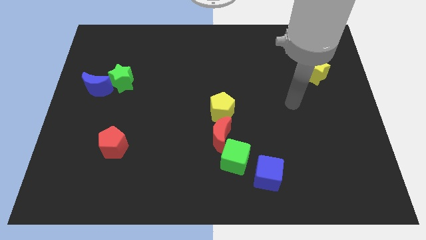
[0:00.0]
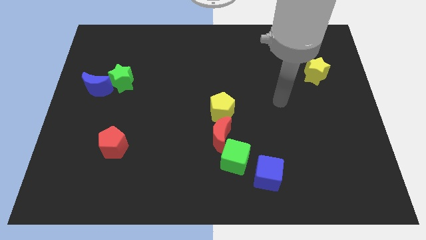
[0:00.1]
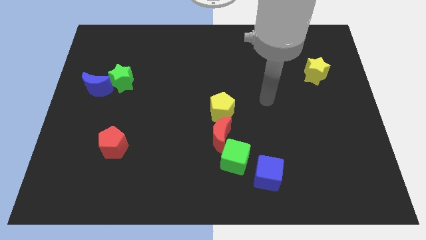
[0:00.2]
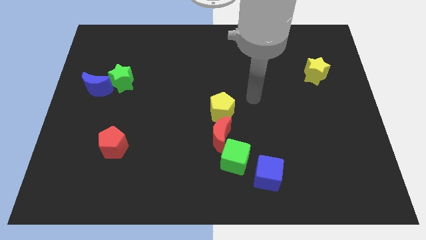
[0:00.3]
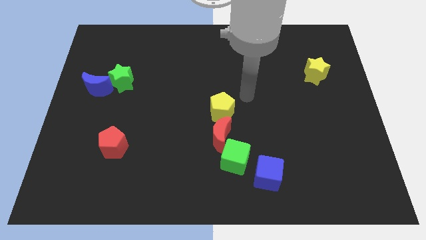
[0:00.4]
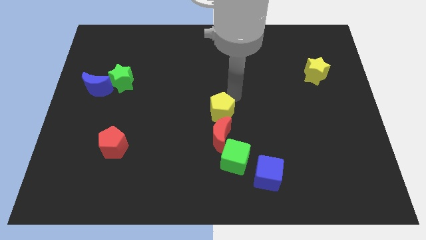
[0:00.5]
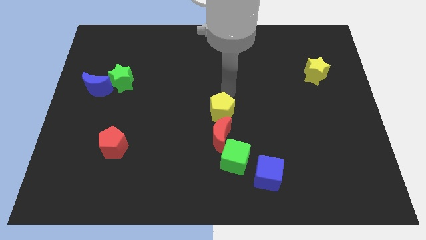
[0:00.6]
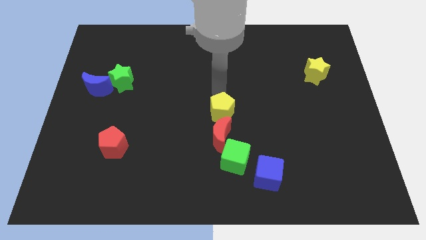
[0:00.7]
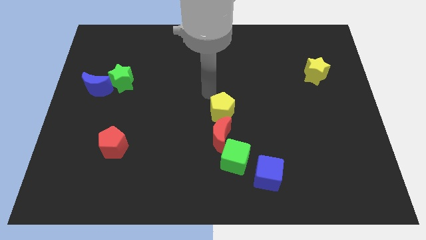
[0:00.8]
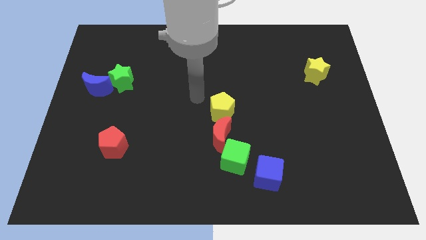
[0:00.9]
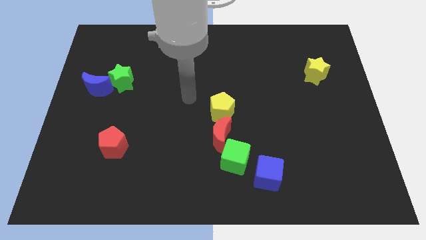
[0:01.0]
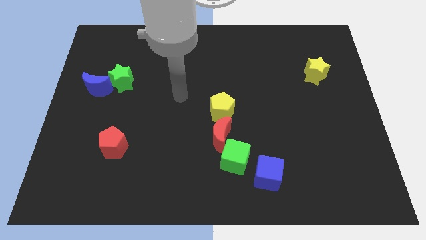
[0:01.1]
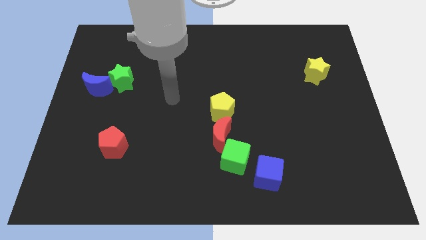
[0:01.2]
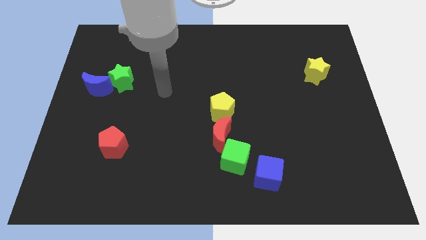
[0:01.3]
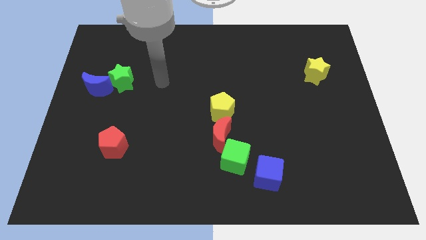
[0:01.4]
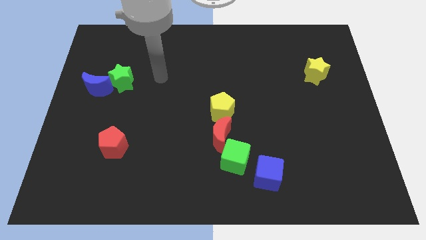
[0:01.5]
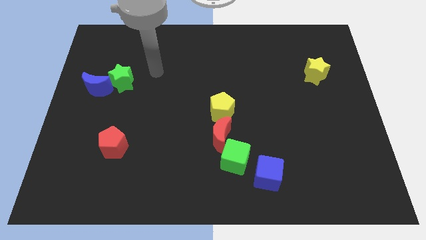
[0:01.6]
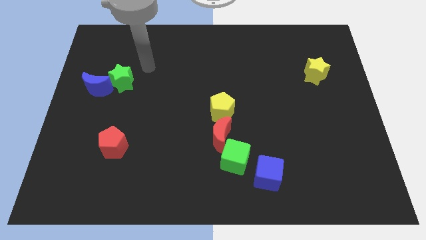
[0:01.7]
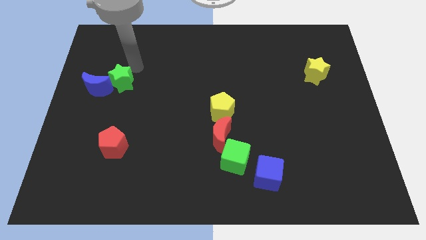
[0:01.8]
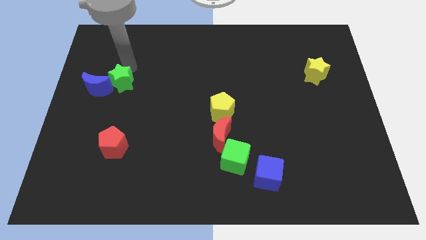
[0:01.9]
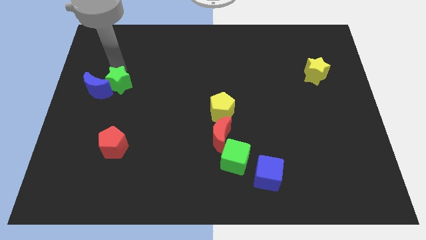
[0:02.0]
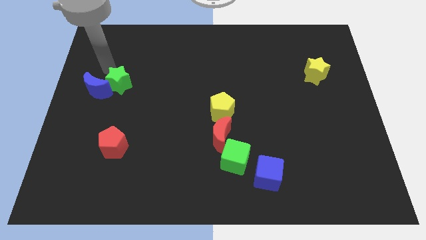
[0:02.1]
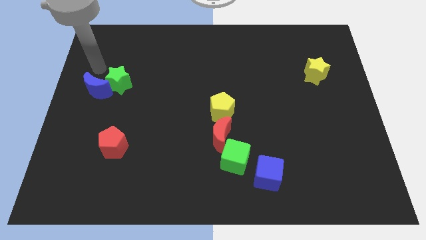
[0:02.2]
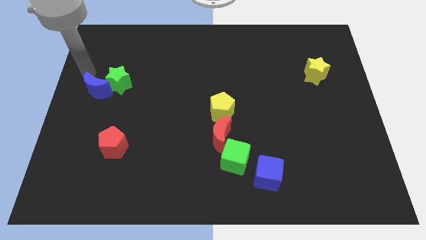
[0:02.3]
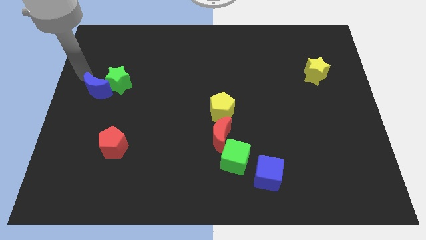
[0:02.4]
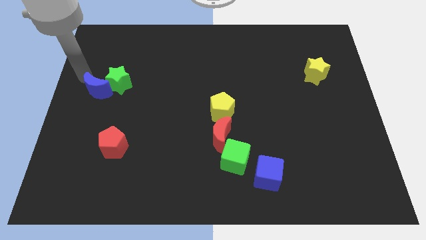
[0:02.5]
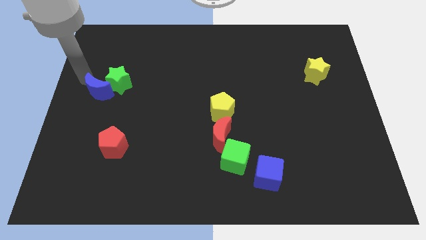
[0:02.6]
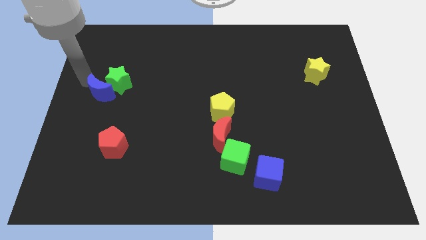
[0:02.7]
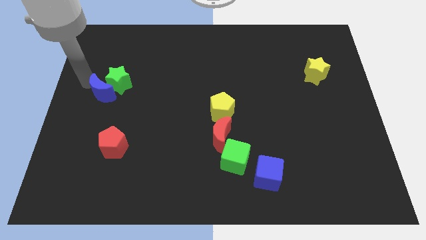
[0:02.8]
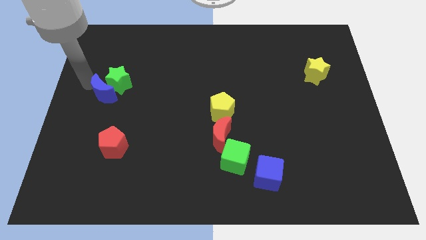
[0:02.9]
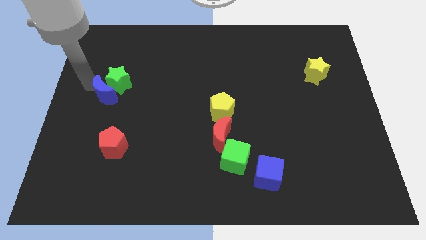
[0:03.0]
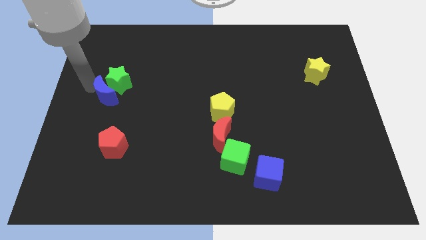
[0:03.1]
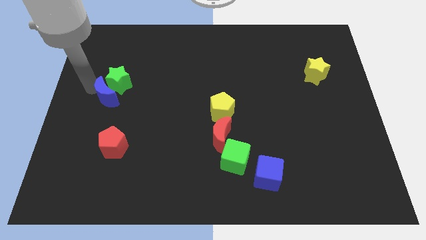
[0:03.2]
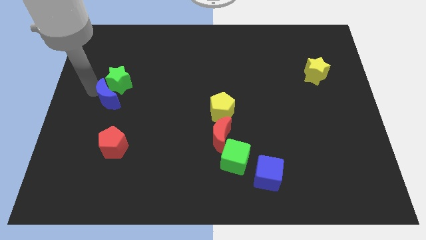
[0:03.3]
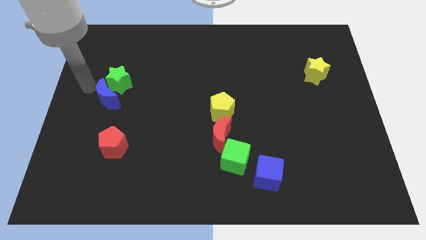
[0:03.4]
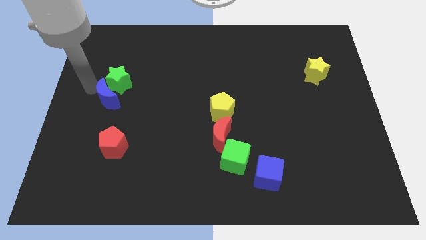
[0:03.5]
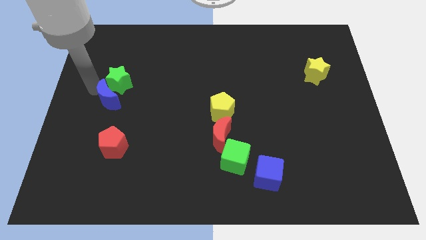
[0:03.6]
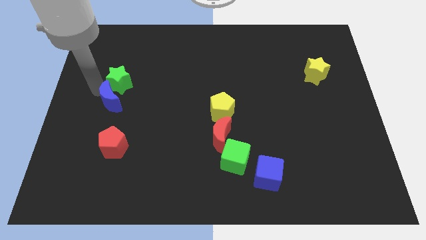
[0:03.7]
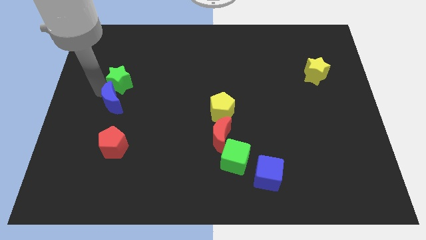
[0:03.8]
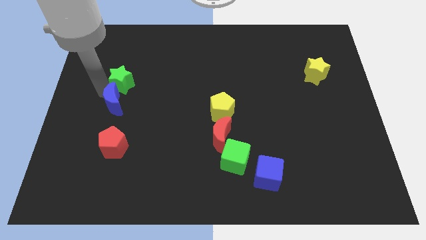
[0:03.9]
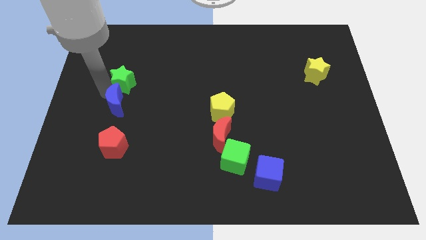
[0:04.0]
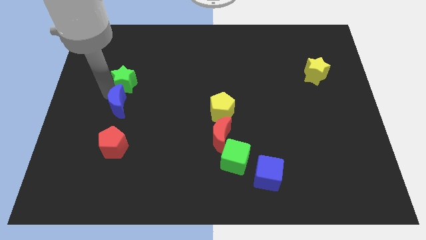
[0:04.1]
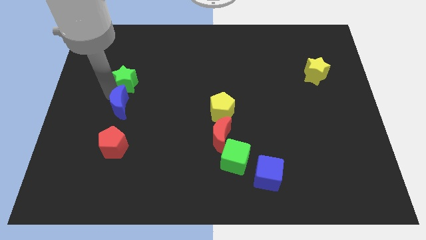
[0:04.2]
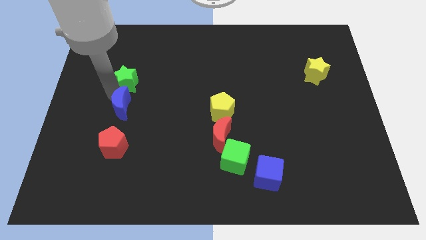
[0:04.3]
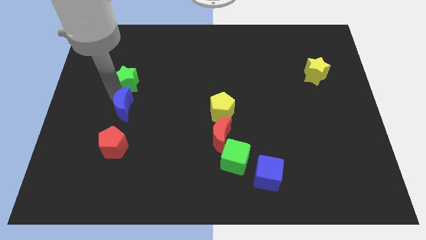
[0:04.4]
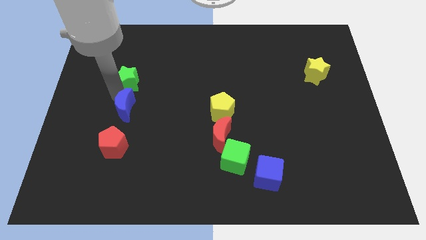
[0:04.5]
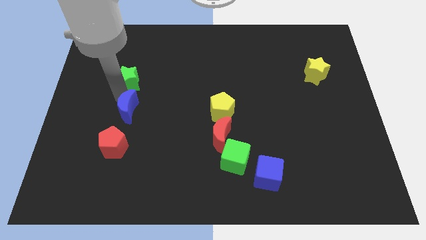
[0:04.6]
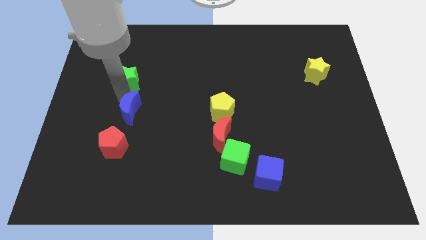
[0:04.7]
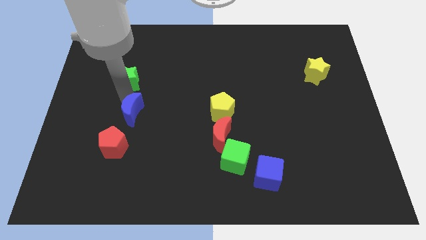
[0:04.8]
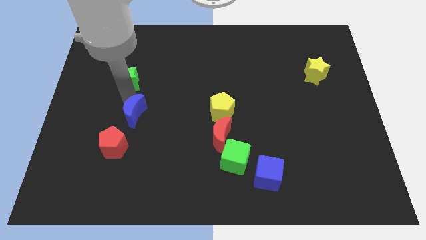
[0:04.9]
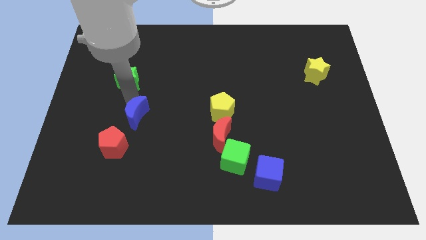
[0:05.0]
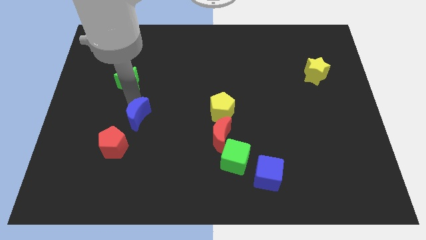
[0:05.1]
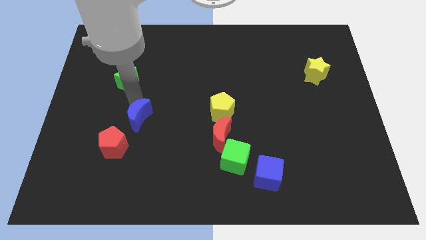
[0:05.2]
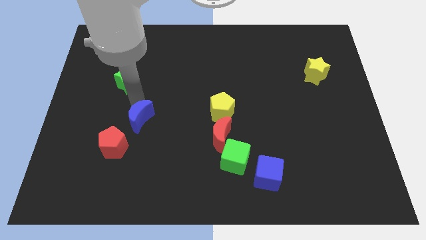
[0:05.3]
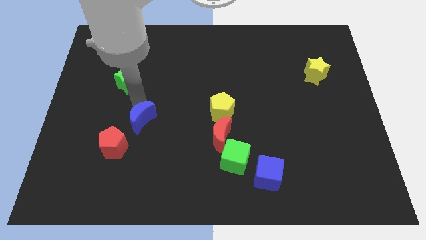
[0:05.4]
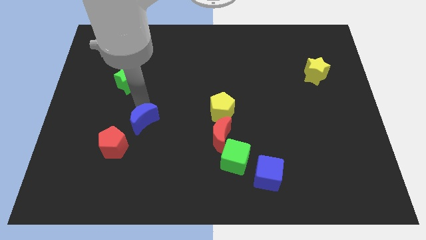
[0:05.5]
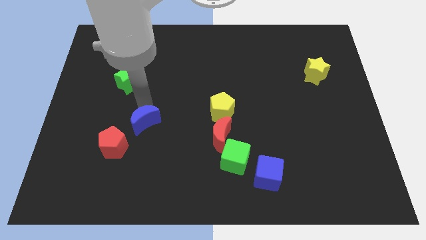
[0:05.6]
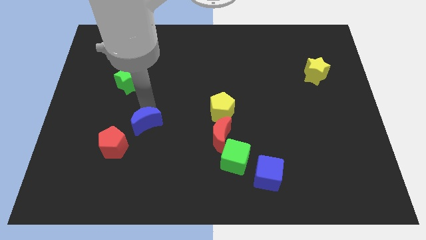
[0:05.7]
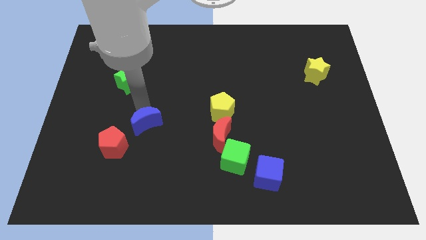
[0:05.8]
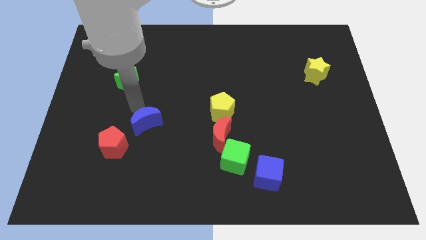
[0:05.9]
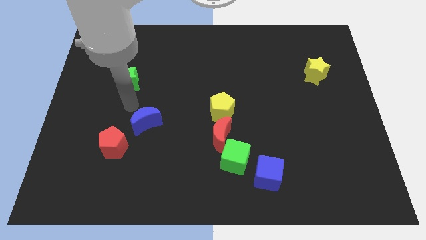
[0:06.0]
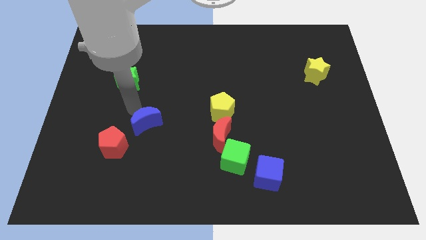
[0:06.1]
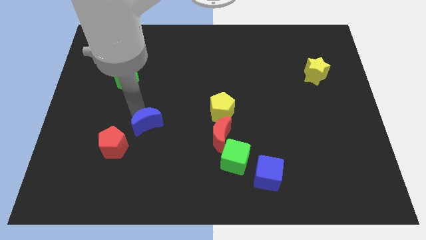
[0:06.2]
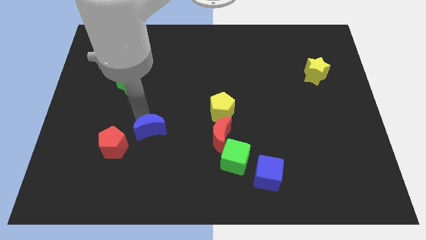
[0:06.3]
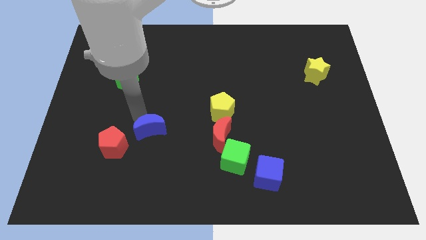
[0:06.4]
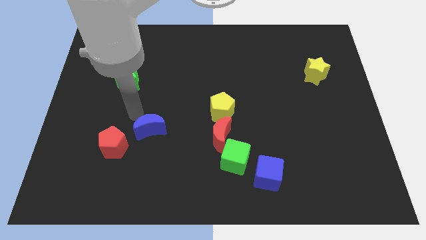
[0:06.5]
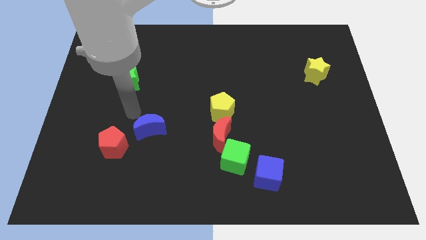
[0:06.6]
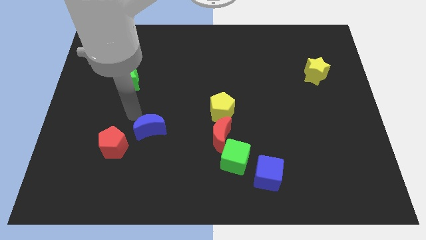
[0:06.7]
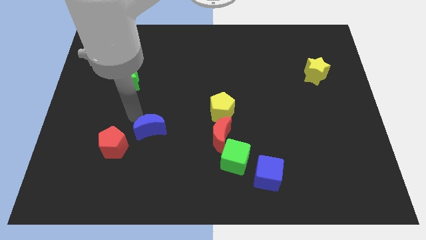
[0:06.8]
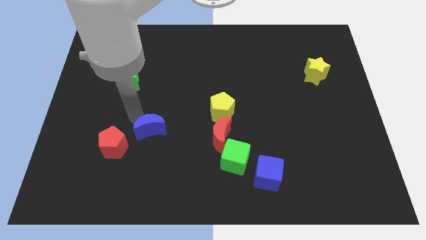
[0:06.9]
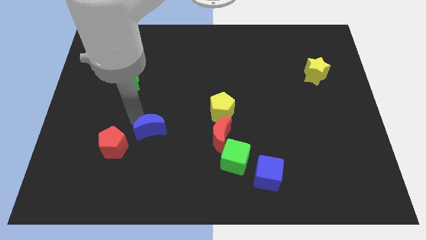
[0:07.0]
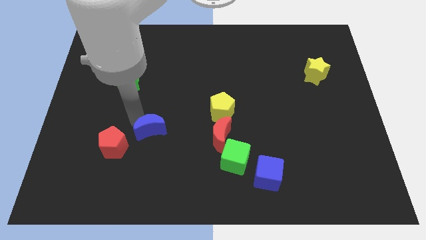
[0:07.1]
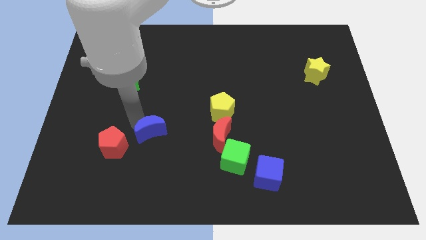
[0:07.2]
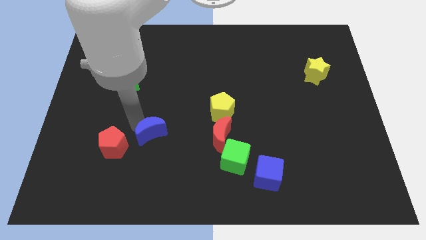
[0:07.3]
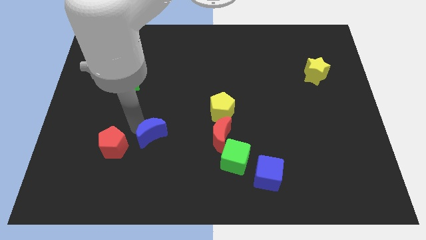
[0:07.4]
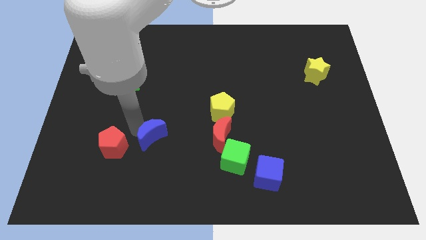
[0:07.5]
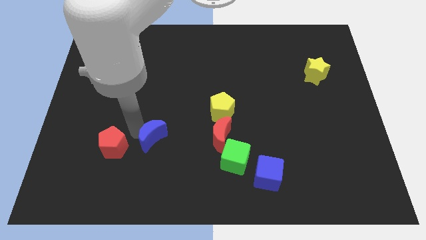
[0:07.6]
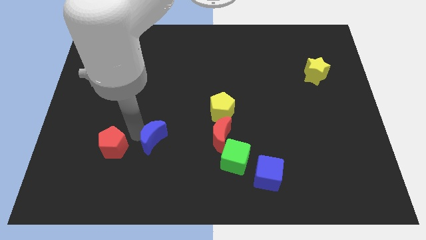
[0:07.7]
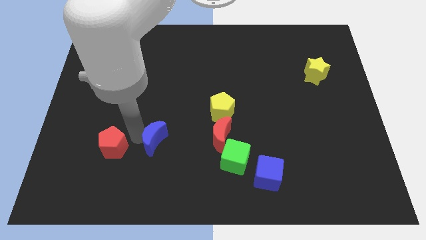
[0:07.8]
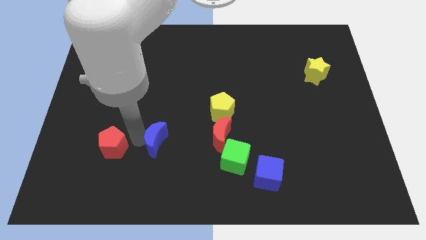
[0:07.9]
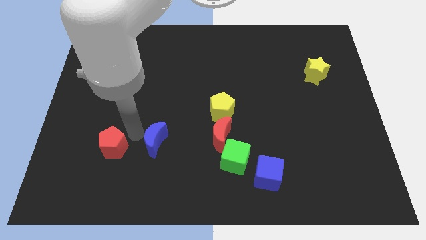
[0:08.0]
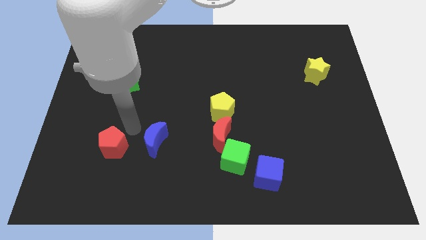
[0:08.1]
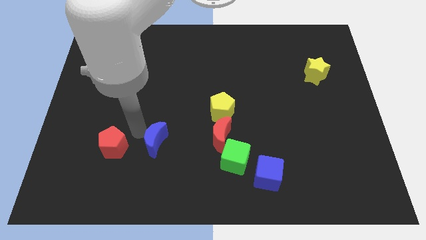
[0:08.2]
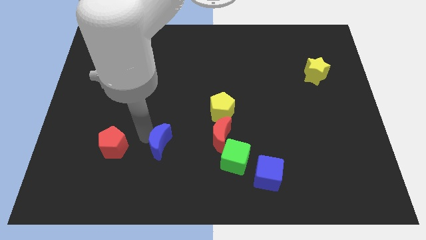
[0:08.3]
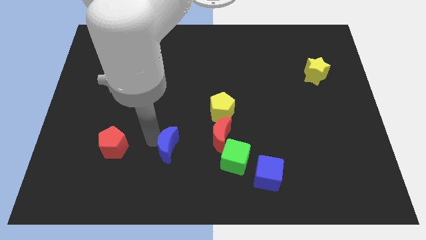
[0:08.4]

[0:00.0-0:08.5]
push the blue moon to the left of the green cube
